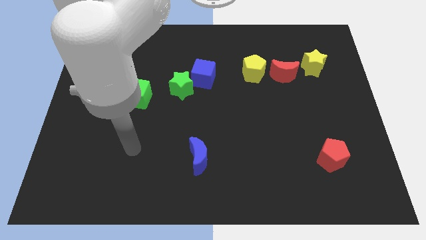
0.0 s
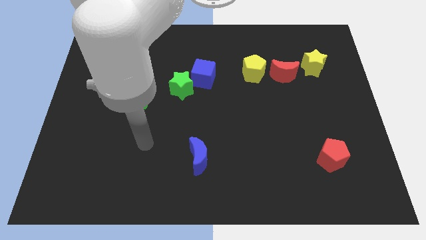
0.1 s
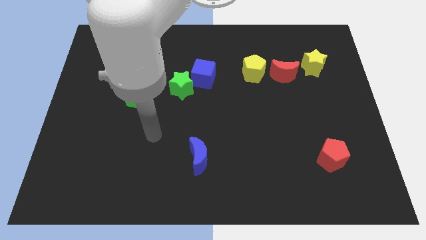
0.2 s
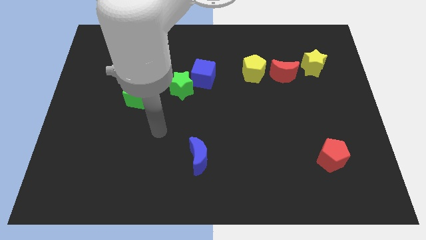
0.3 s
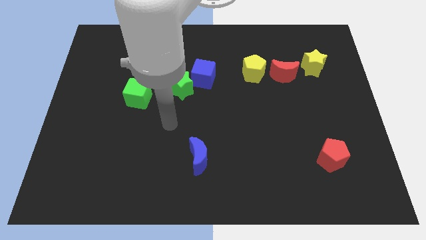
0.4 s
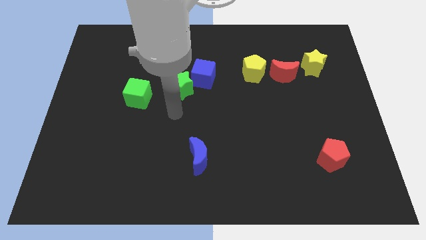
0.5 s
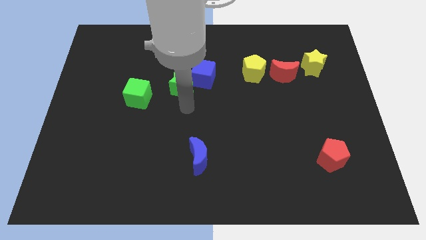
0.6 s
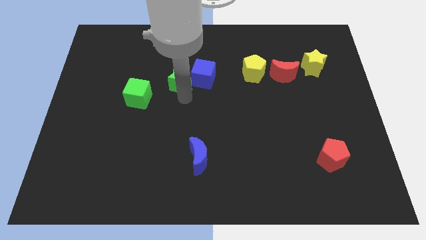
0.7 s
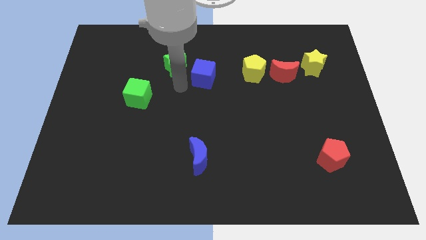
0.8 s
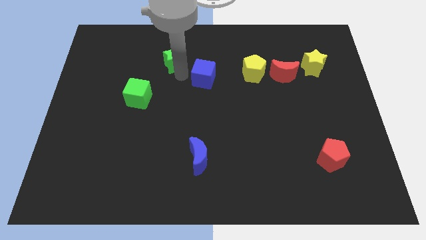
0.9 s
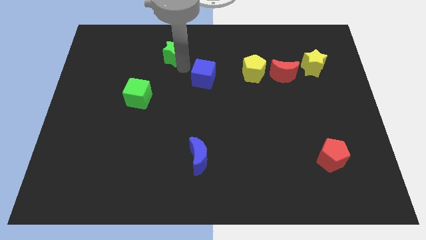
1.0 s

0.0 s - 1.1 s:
move the blue cube away from the green star

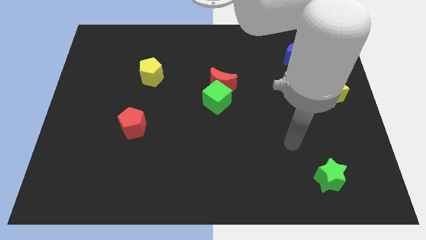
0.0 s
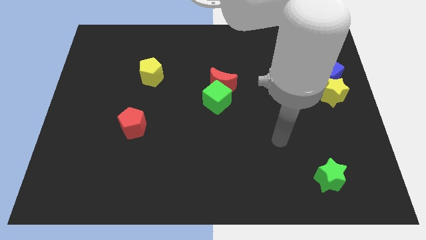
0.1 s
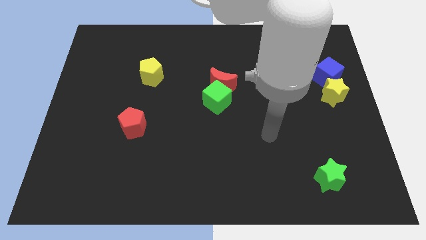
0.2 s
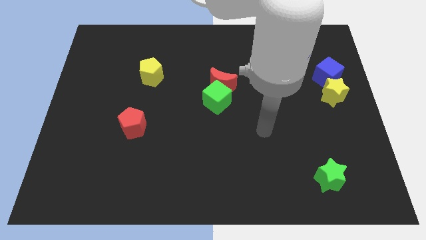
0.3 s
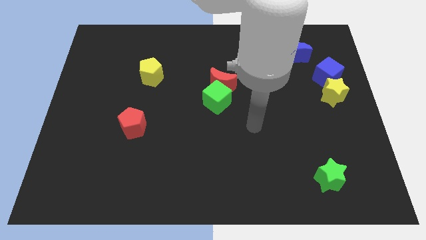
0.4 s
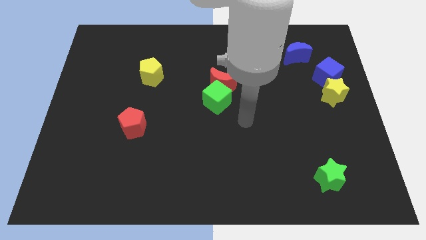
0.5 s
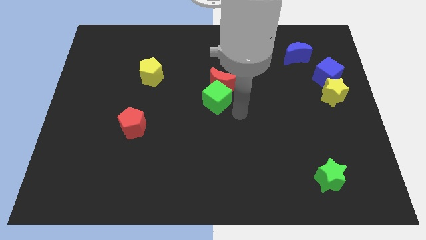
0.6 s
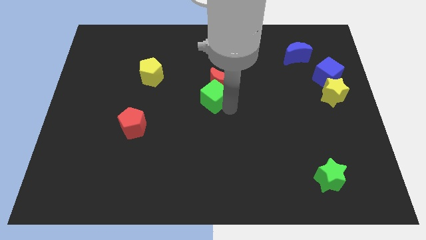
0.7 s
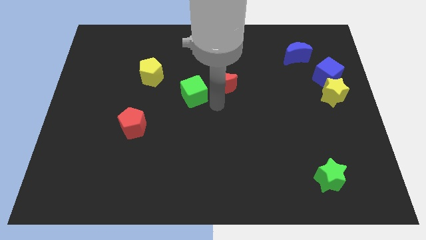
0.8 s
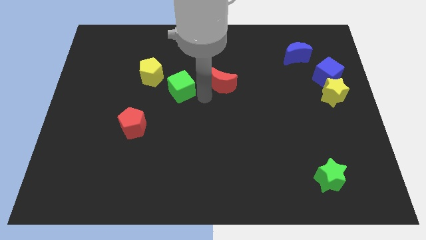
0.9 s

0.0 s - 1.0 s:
move the red moon away from the green cube

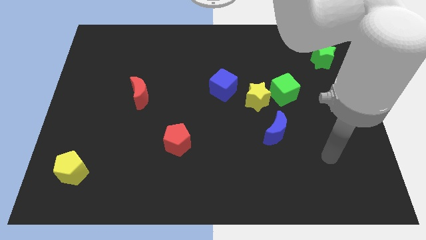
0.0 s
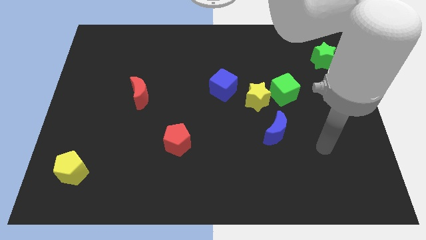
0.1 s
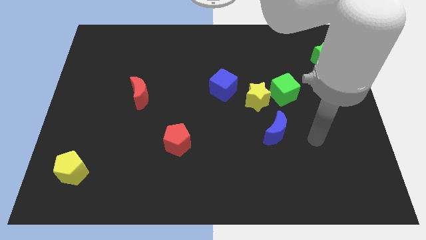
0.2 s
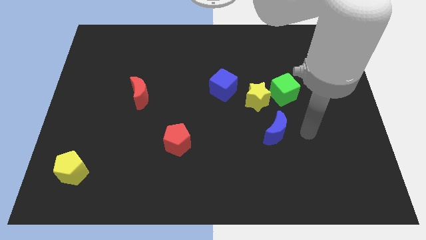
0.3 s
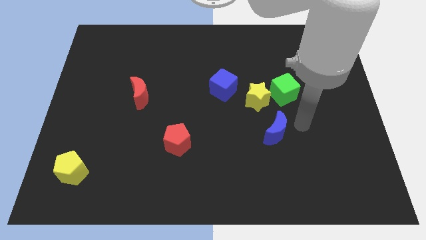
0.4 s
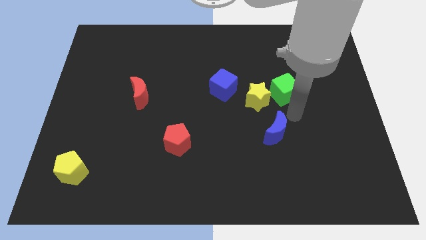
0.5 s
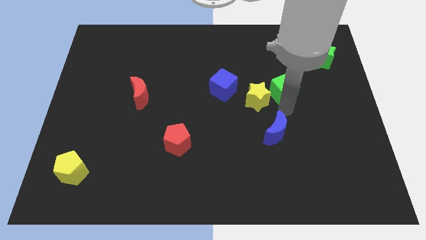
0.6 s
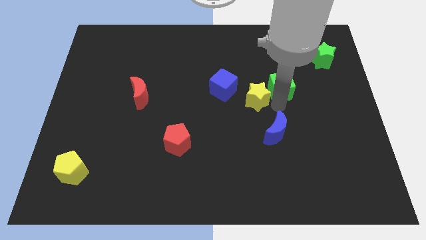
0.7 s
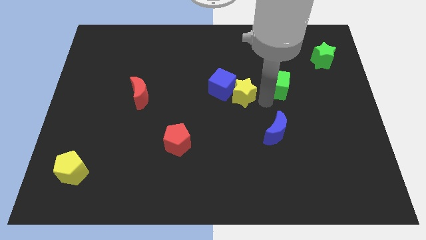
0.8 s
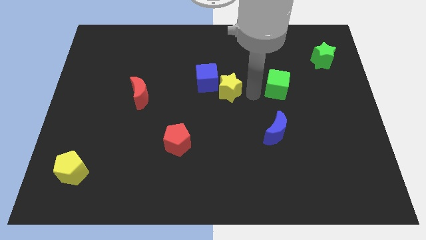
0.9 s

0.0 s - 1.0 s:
separate the green cube from the yellow star

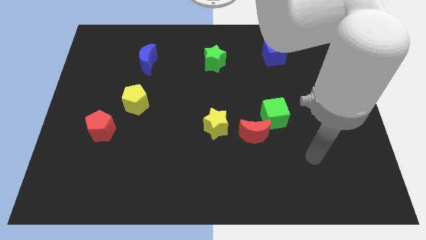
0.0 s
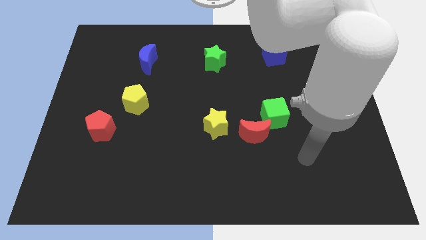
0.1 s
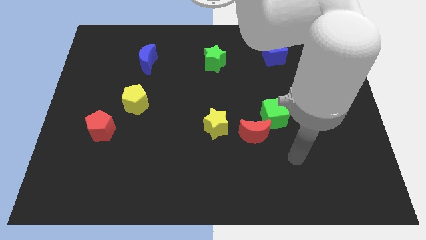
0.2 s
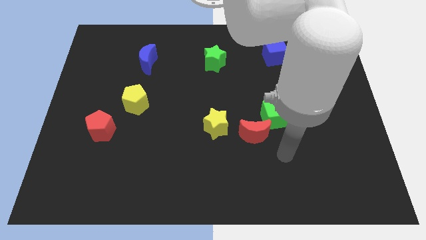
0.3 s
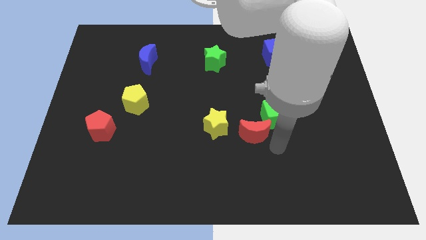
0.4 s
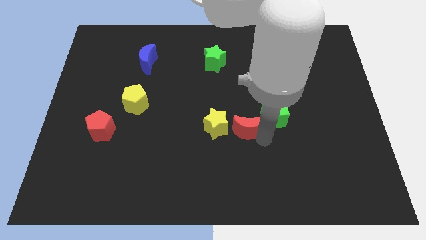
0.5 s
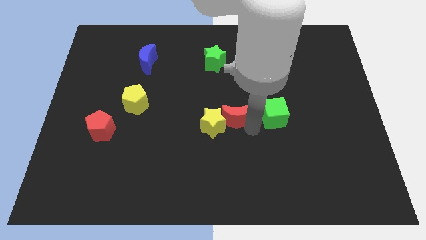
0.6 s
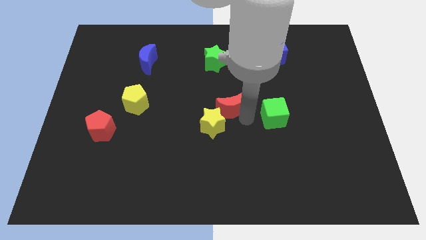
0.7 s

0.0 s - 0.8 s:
move the green cube away from the red moon

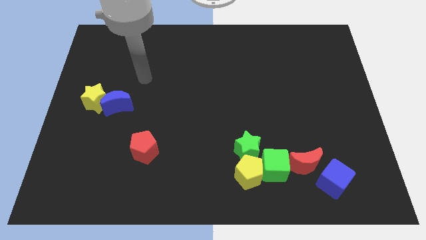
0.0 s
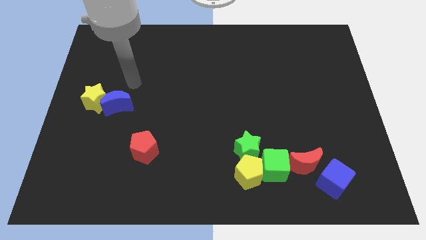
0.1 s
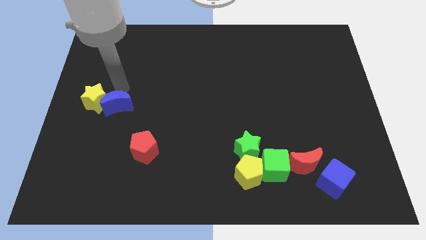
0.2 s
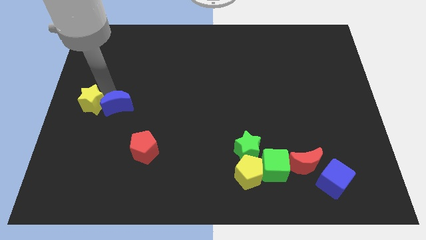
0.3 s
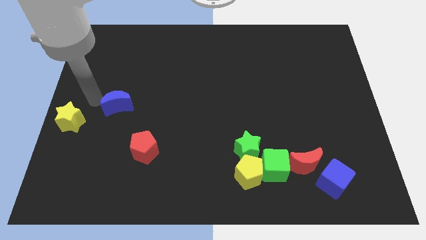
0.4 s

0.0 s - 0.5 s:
pull the blue moon apart from the yellow star

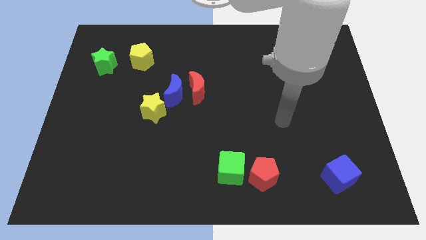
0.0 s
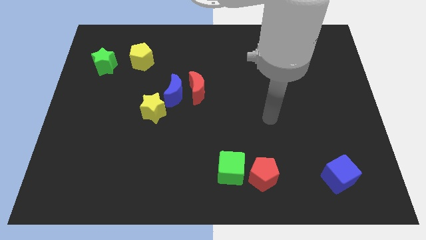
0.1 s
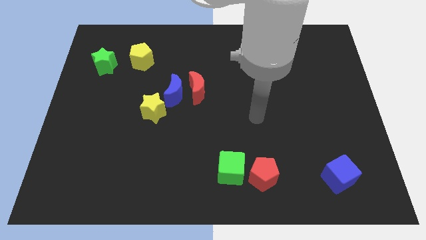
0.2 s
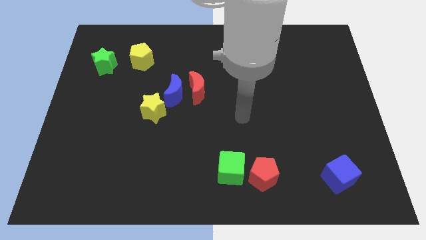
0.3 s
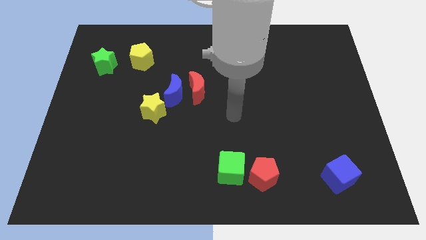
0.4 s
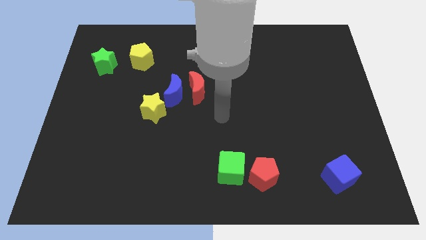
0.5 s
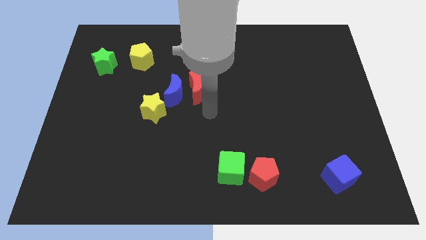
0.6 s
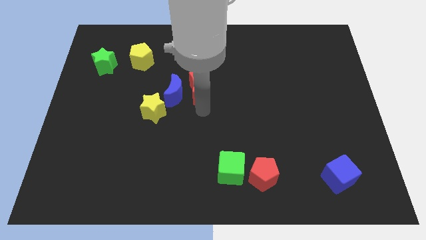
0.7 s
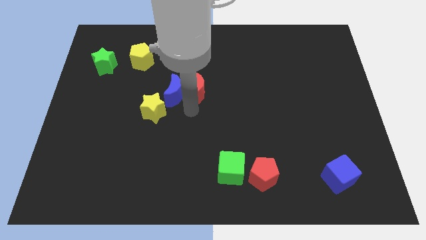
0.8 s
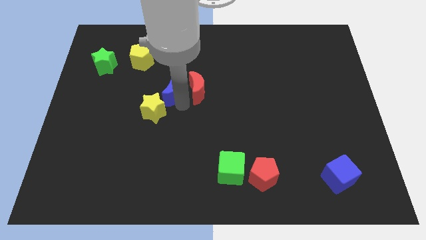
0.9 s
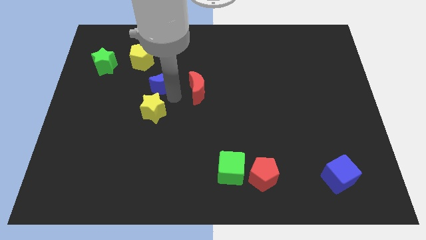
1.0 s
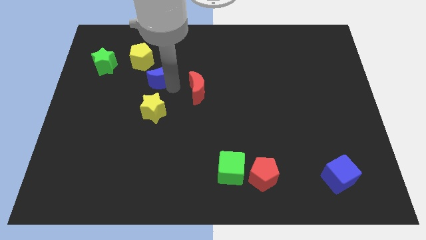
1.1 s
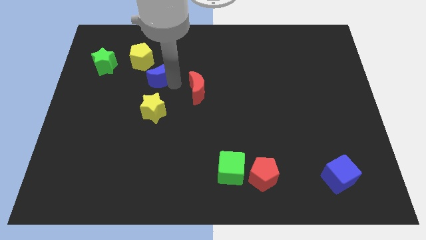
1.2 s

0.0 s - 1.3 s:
move the red moon away from the blue moon

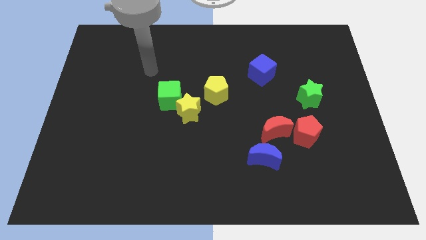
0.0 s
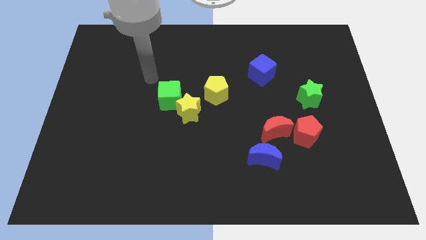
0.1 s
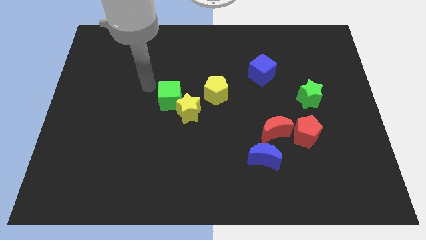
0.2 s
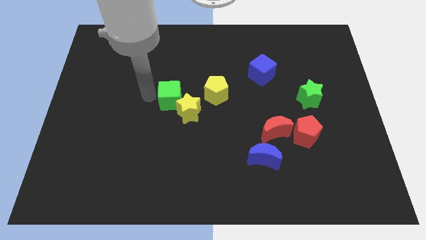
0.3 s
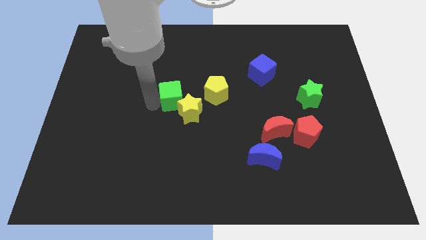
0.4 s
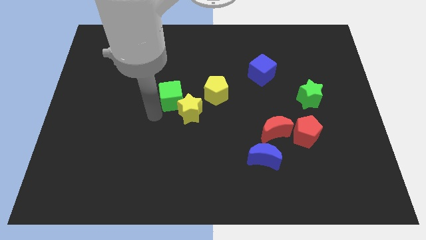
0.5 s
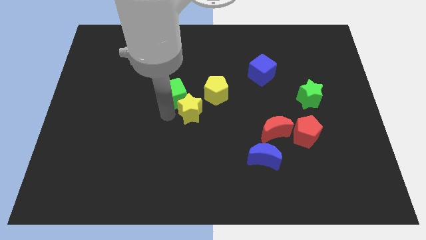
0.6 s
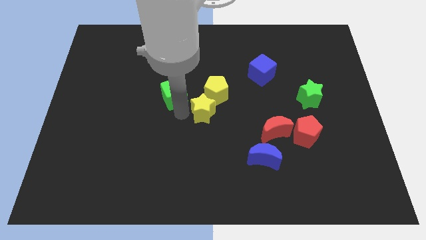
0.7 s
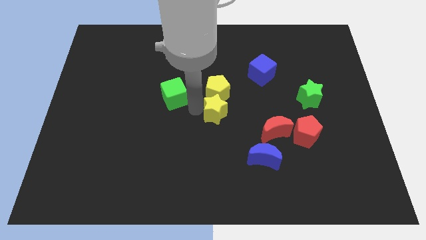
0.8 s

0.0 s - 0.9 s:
pull the green cube apart from the yellow star

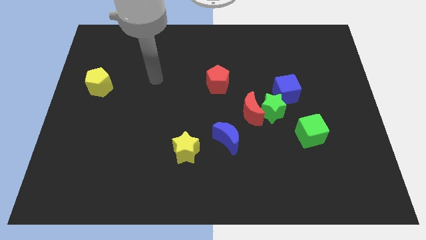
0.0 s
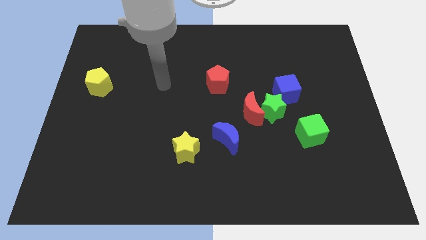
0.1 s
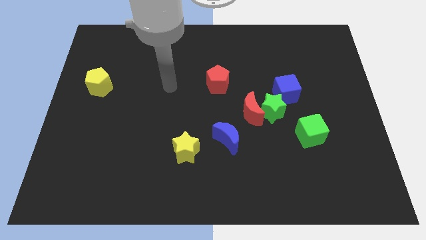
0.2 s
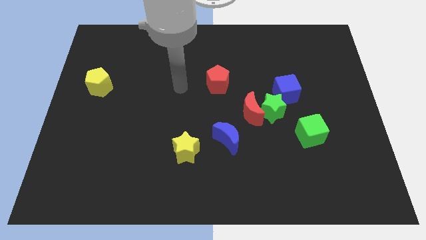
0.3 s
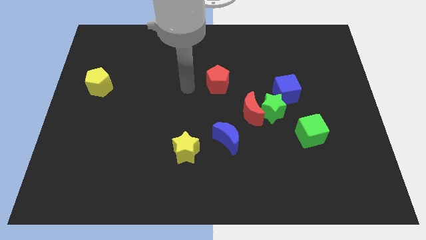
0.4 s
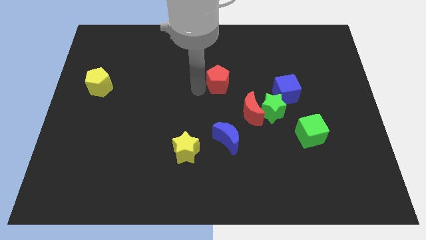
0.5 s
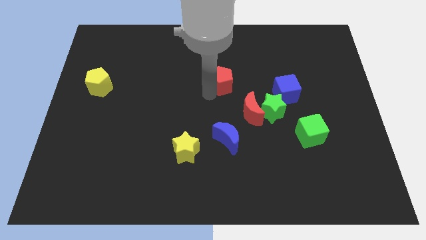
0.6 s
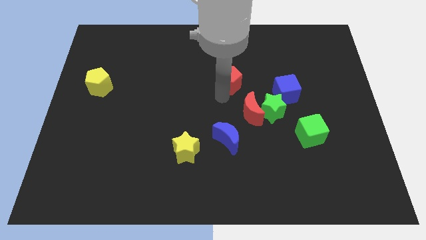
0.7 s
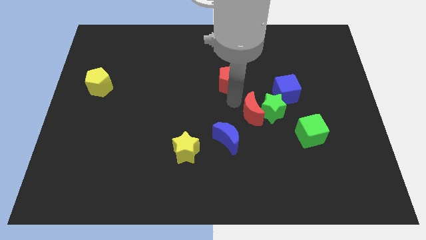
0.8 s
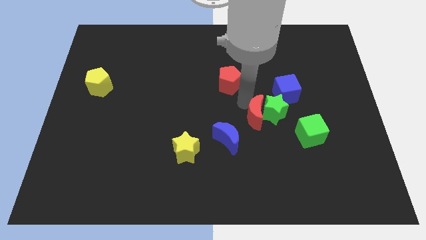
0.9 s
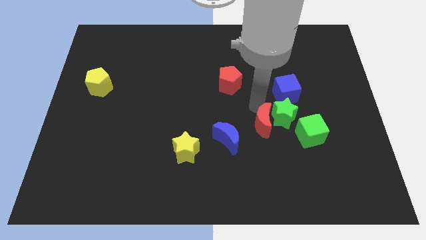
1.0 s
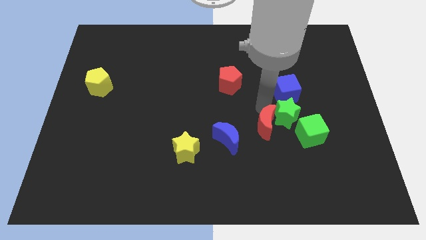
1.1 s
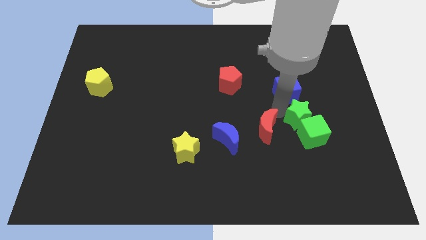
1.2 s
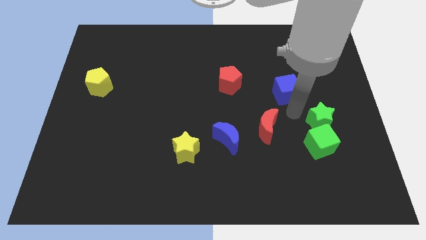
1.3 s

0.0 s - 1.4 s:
separate the blue cube from the green star

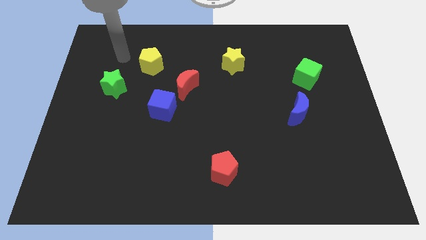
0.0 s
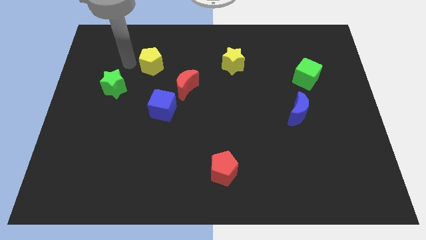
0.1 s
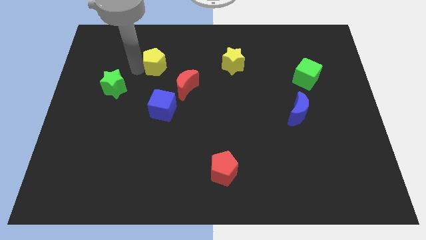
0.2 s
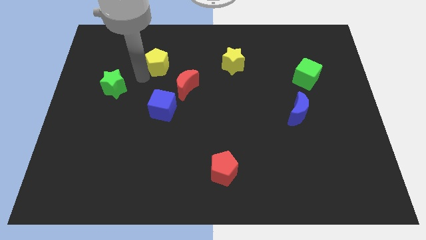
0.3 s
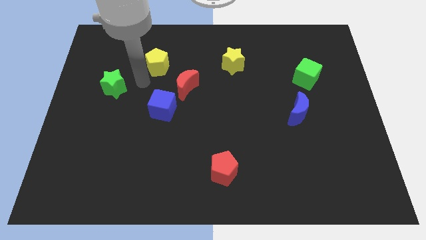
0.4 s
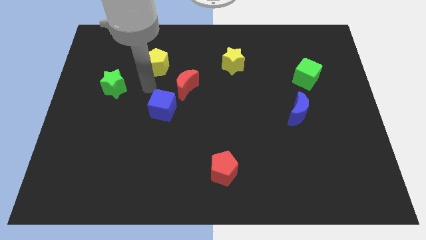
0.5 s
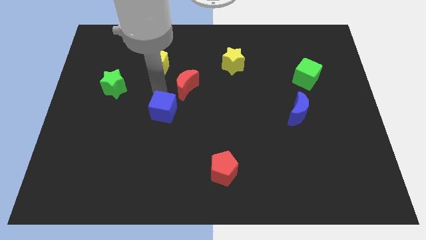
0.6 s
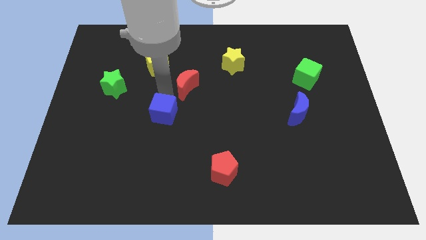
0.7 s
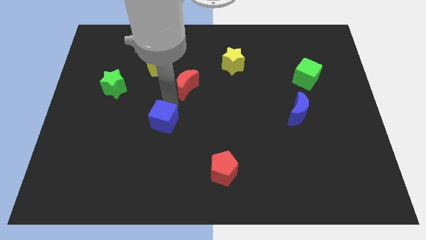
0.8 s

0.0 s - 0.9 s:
move the red moon away from the blue cube

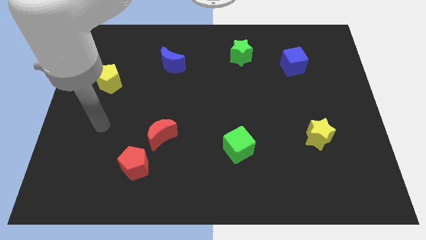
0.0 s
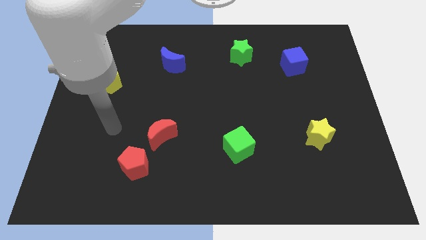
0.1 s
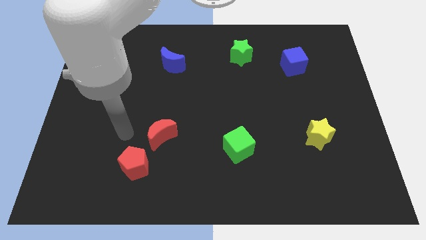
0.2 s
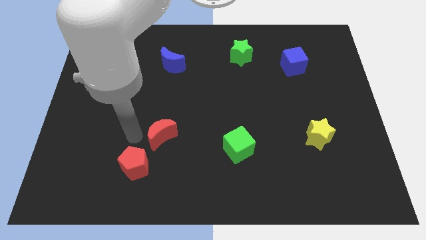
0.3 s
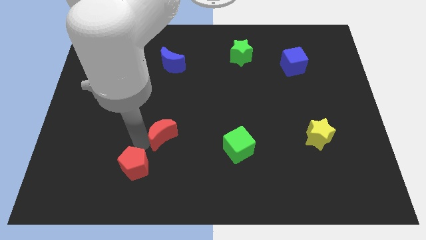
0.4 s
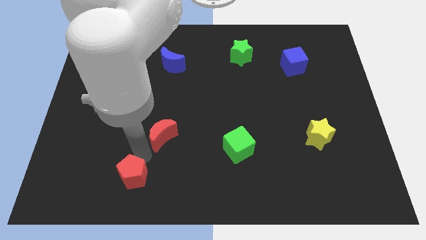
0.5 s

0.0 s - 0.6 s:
separate the red moon from the red pentagon
